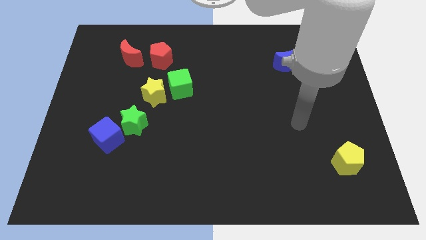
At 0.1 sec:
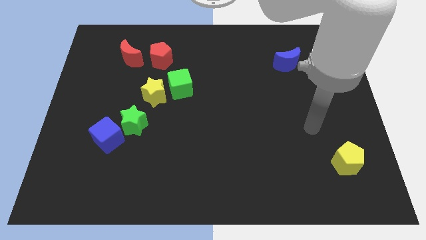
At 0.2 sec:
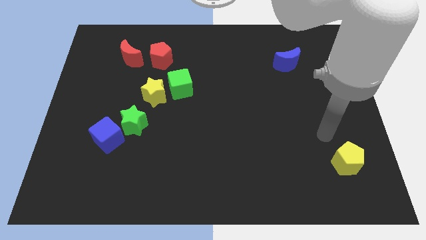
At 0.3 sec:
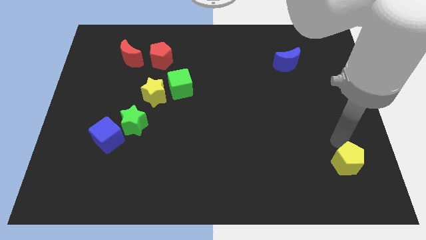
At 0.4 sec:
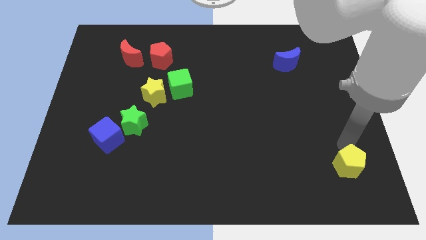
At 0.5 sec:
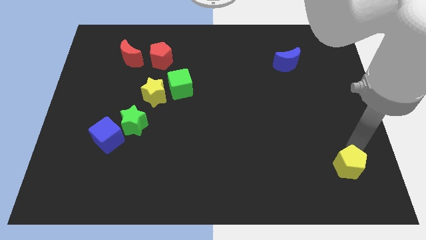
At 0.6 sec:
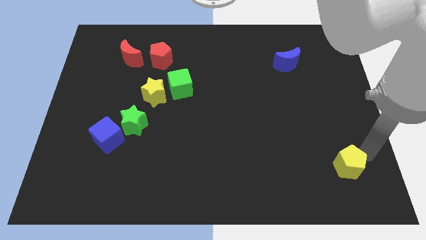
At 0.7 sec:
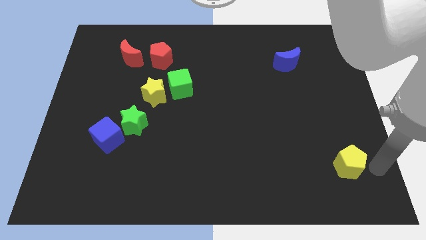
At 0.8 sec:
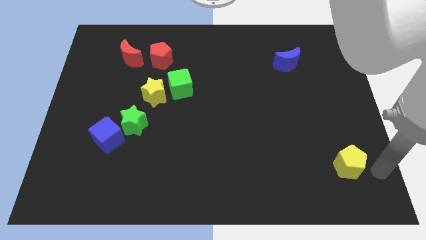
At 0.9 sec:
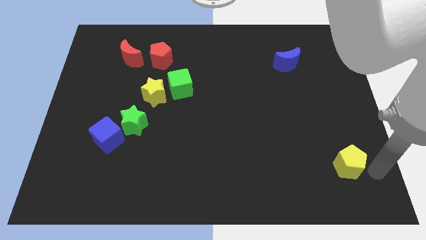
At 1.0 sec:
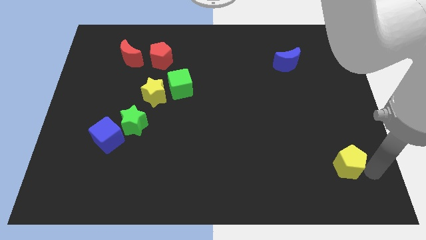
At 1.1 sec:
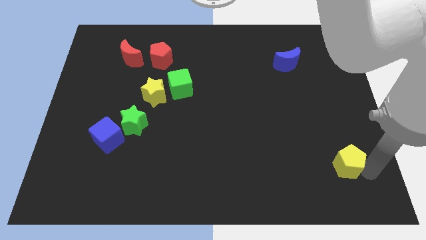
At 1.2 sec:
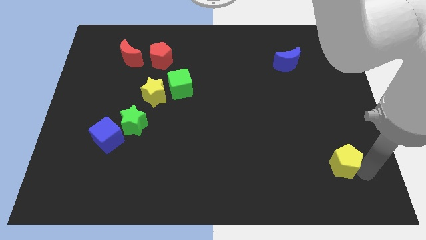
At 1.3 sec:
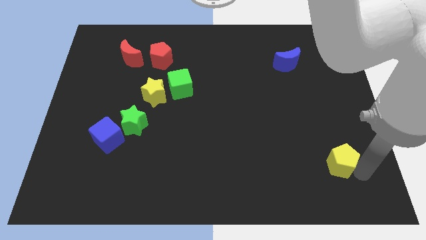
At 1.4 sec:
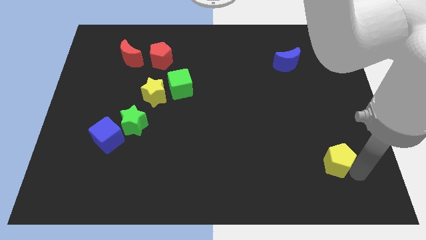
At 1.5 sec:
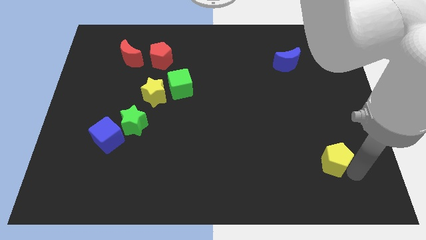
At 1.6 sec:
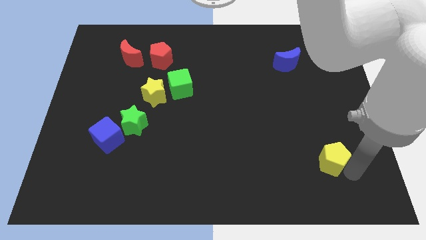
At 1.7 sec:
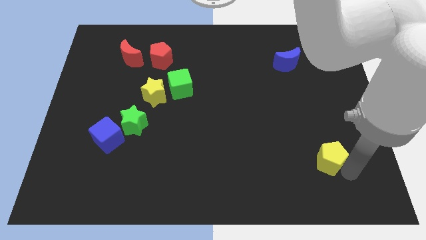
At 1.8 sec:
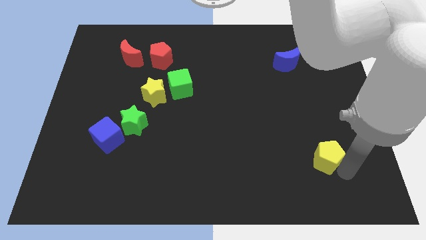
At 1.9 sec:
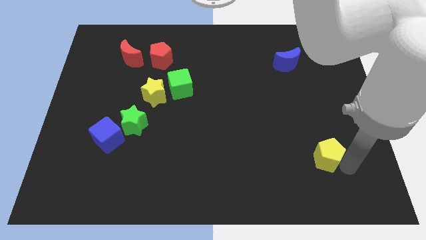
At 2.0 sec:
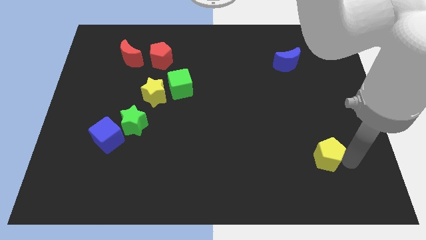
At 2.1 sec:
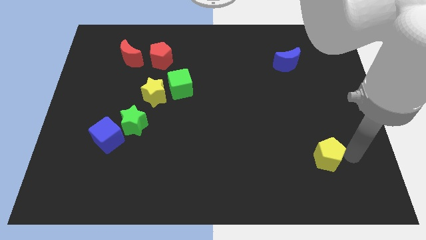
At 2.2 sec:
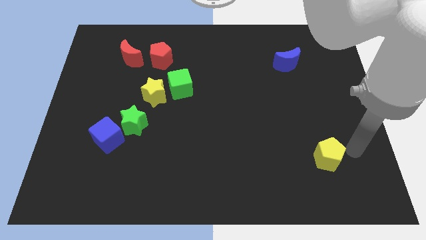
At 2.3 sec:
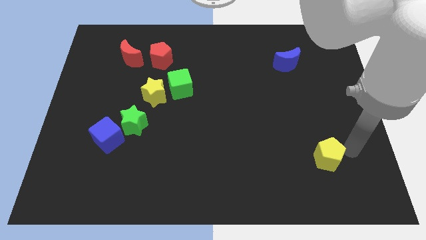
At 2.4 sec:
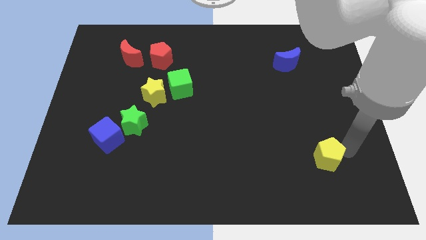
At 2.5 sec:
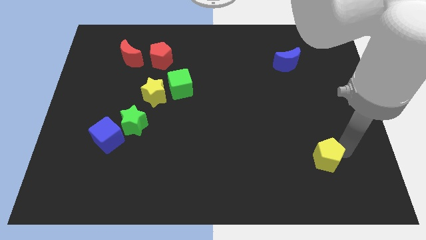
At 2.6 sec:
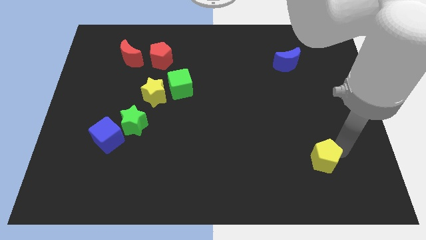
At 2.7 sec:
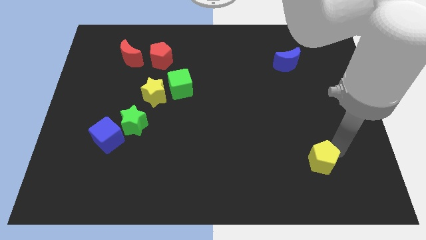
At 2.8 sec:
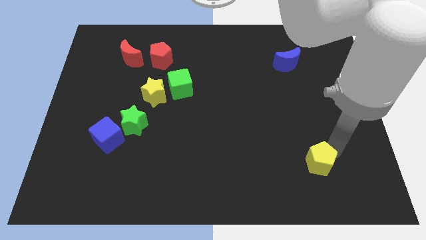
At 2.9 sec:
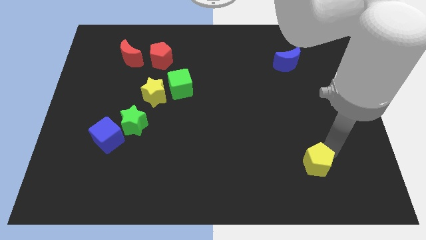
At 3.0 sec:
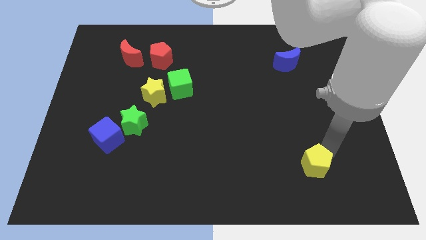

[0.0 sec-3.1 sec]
slightly slide the yellow pentagon left

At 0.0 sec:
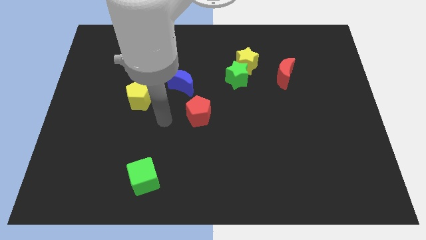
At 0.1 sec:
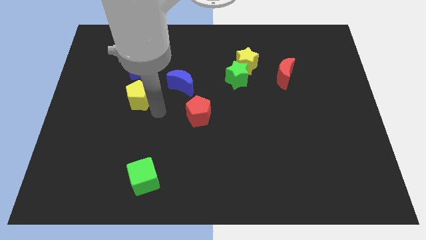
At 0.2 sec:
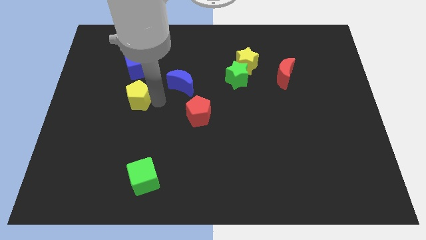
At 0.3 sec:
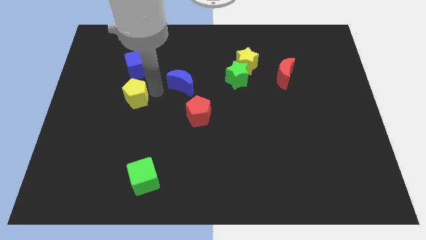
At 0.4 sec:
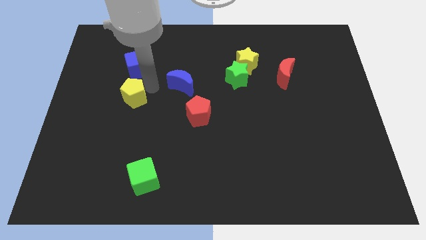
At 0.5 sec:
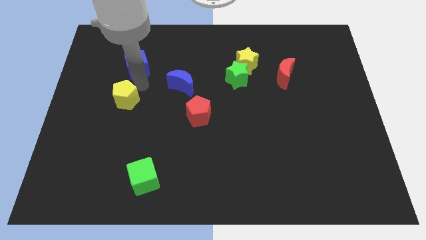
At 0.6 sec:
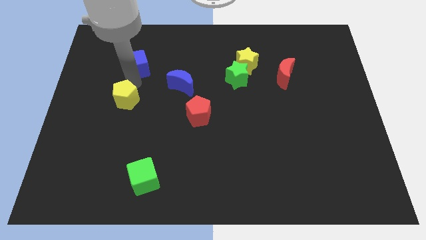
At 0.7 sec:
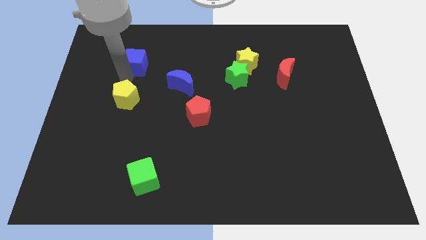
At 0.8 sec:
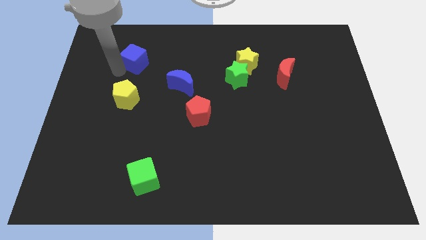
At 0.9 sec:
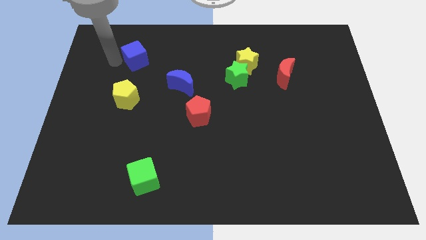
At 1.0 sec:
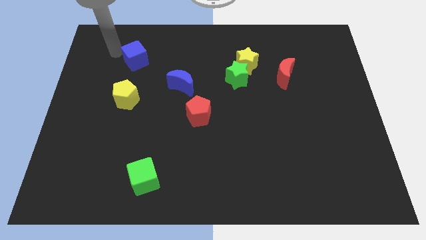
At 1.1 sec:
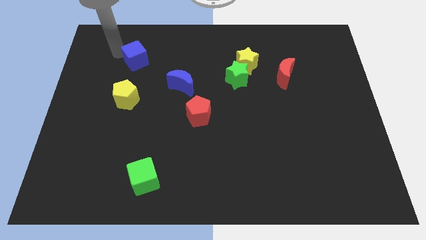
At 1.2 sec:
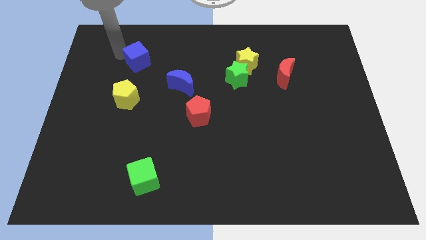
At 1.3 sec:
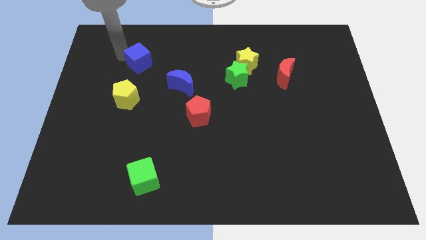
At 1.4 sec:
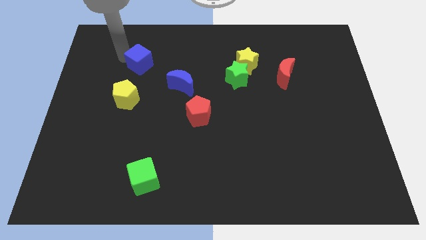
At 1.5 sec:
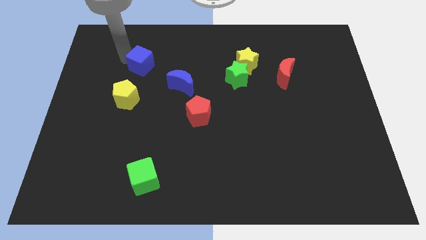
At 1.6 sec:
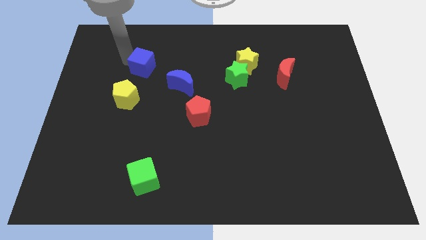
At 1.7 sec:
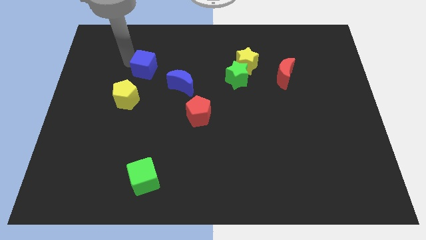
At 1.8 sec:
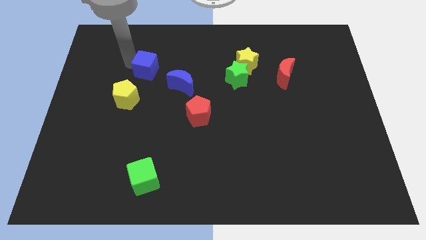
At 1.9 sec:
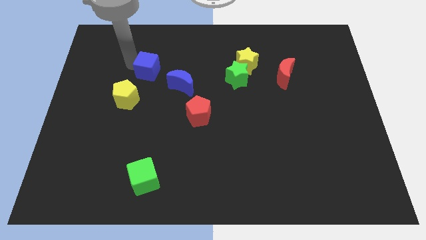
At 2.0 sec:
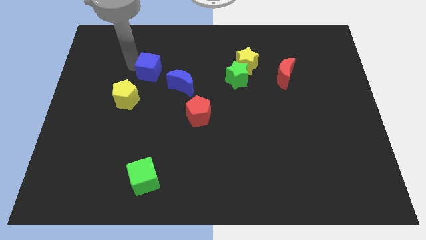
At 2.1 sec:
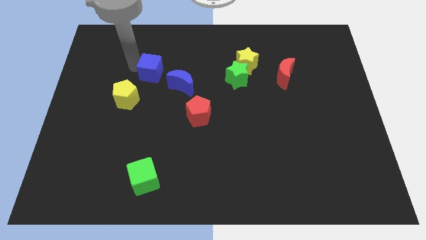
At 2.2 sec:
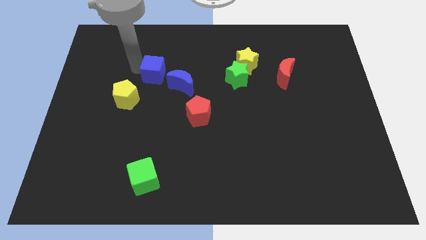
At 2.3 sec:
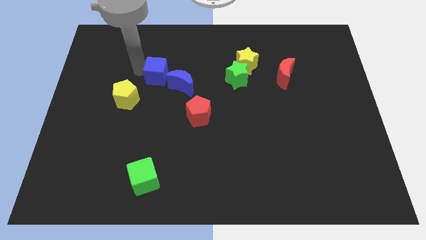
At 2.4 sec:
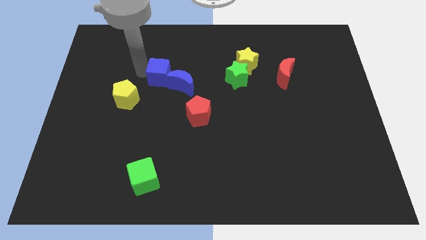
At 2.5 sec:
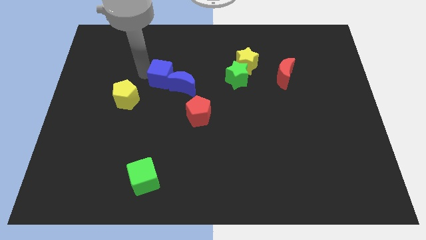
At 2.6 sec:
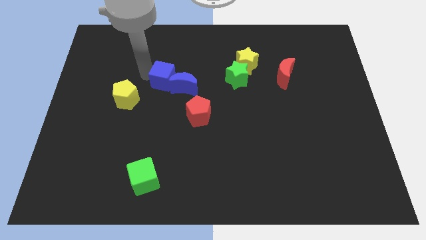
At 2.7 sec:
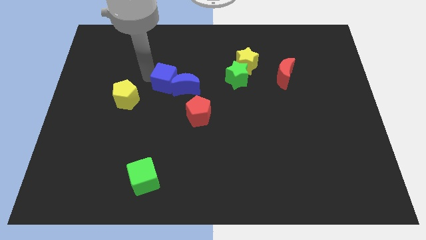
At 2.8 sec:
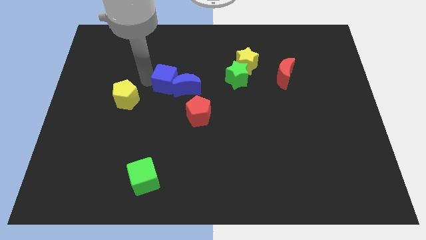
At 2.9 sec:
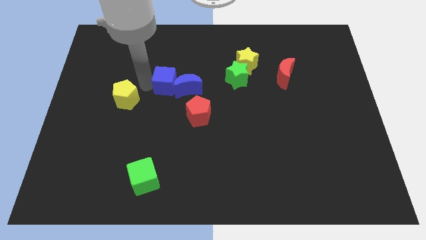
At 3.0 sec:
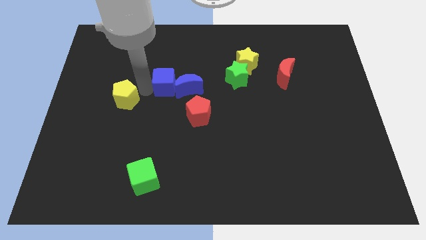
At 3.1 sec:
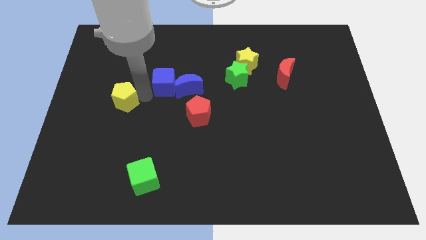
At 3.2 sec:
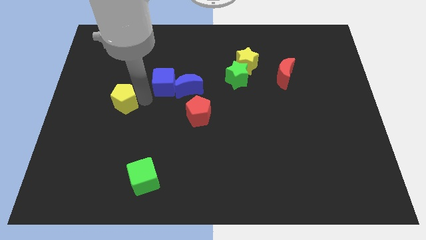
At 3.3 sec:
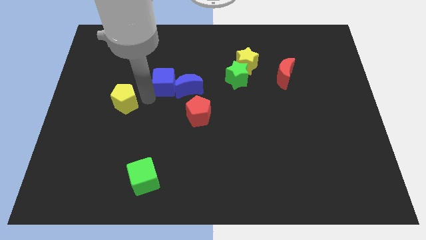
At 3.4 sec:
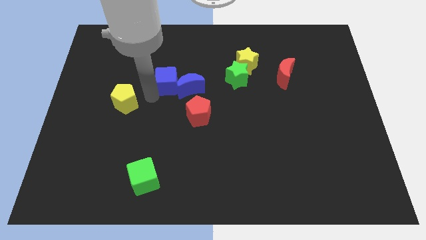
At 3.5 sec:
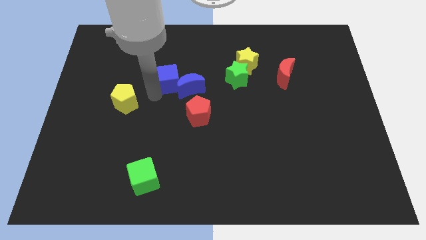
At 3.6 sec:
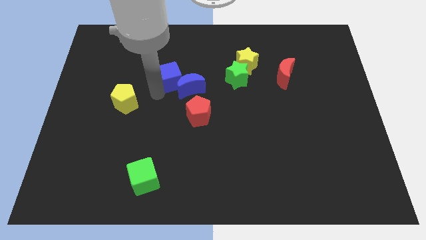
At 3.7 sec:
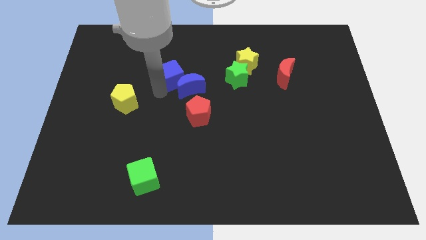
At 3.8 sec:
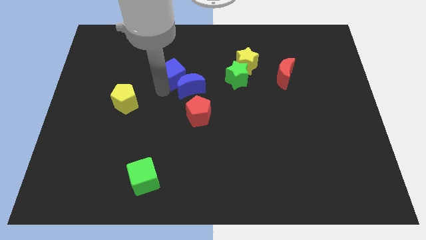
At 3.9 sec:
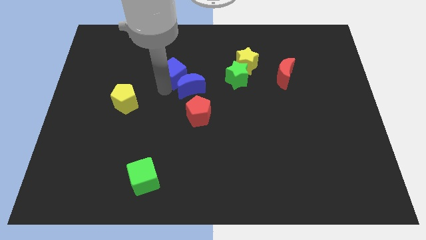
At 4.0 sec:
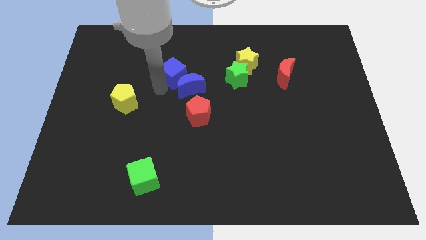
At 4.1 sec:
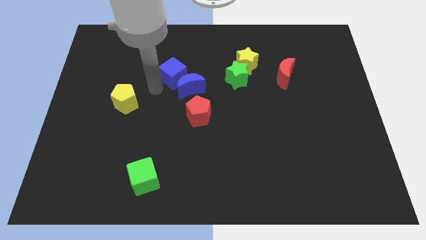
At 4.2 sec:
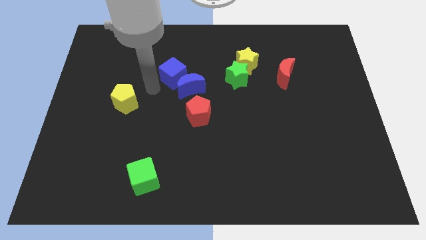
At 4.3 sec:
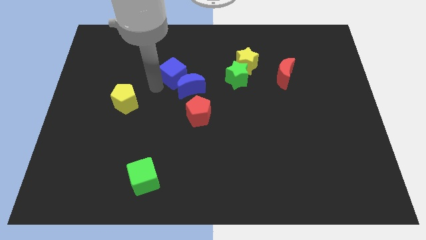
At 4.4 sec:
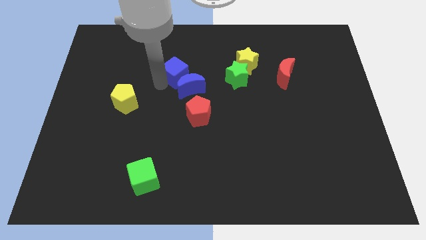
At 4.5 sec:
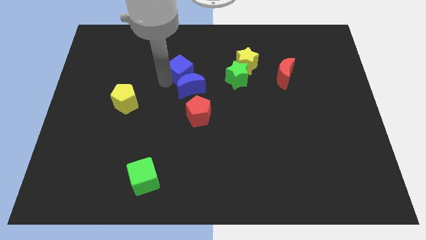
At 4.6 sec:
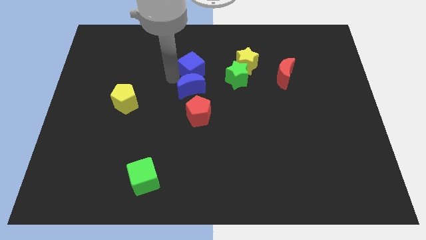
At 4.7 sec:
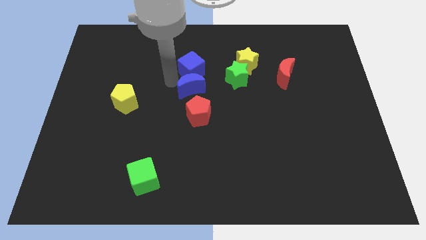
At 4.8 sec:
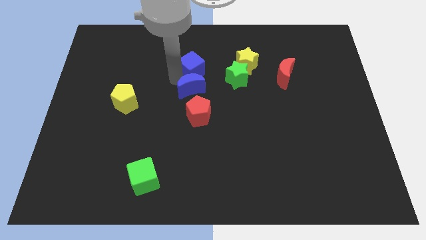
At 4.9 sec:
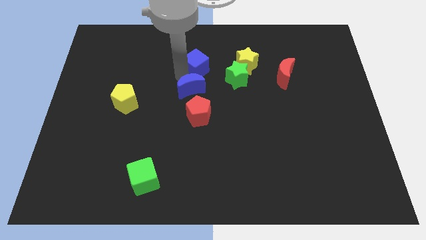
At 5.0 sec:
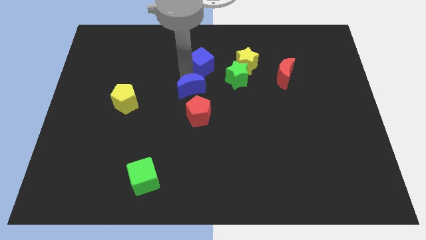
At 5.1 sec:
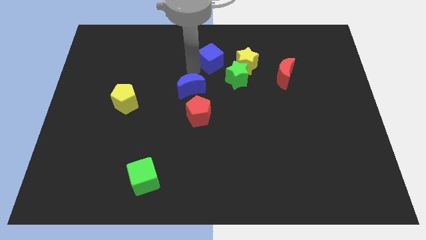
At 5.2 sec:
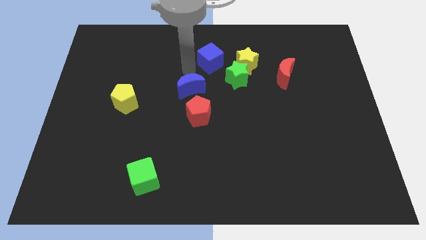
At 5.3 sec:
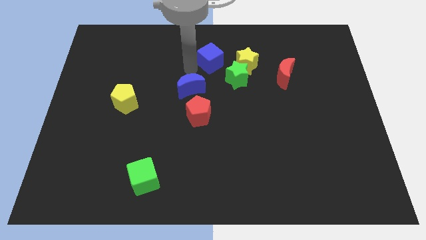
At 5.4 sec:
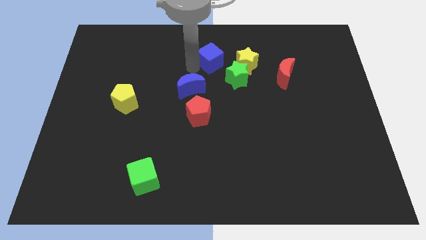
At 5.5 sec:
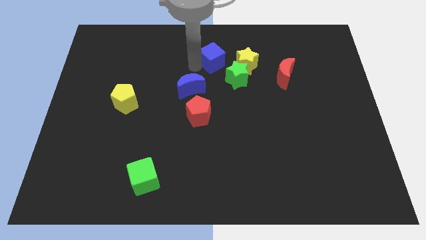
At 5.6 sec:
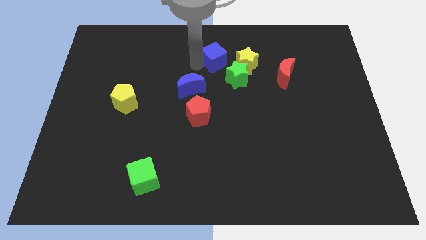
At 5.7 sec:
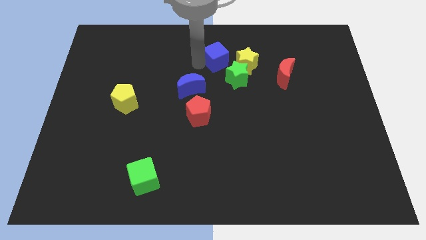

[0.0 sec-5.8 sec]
move the blue cube right
